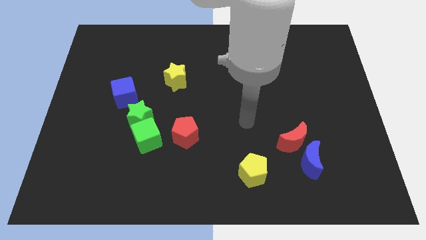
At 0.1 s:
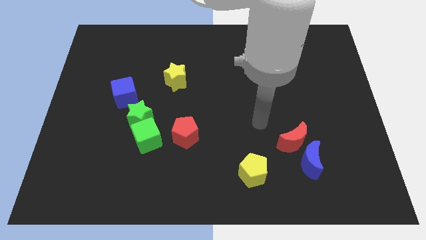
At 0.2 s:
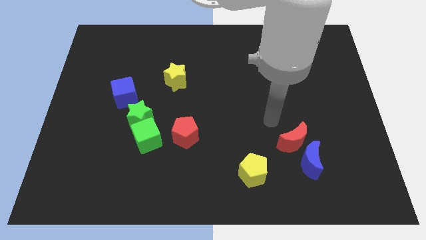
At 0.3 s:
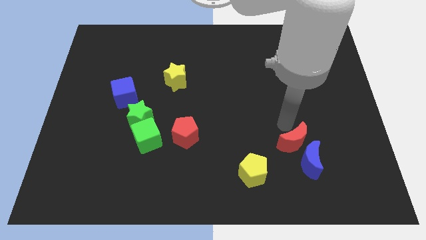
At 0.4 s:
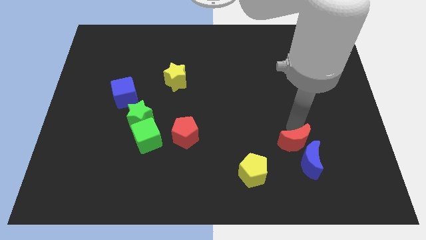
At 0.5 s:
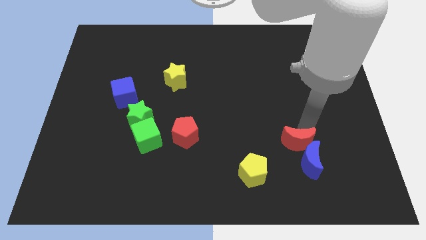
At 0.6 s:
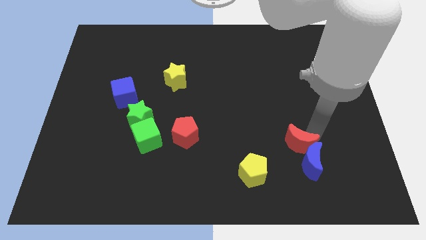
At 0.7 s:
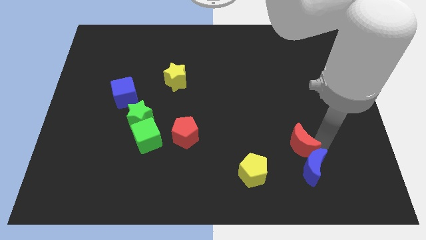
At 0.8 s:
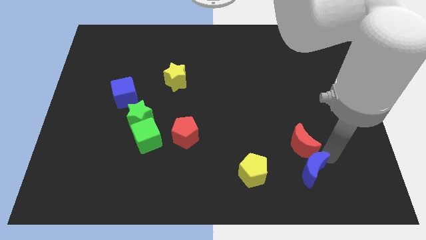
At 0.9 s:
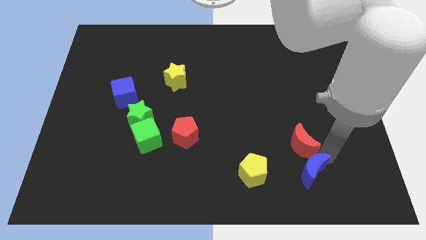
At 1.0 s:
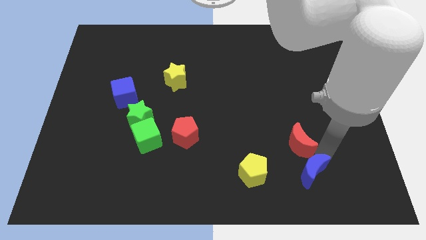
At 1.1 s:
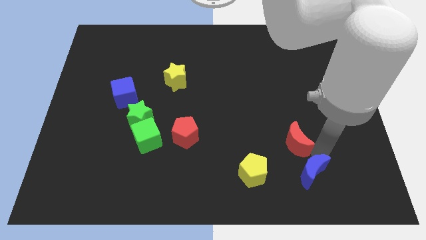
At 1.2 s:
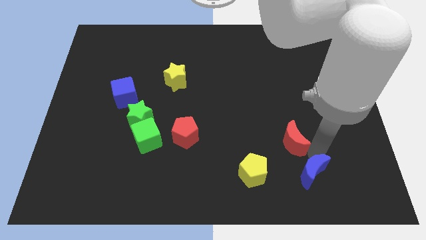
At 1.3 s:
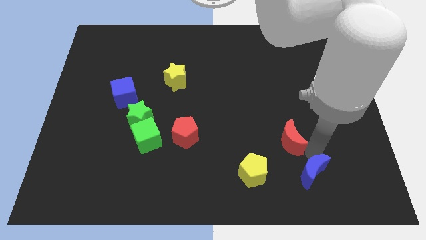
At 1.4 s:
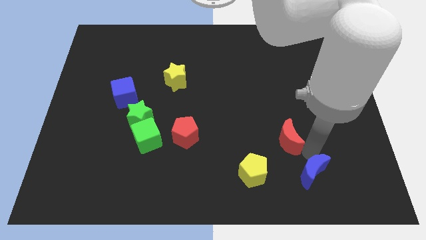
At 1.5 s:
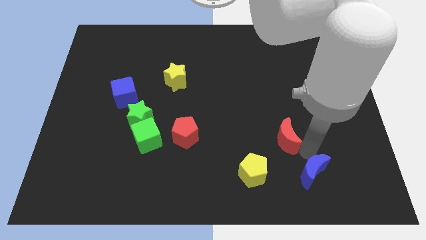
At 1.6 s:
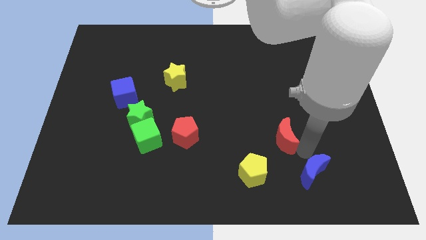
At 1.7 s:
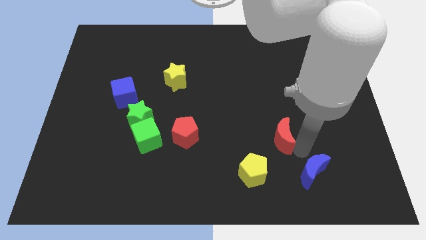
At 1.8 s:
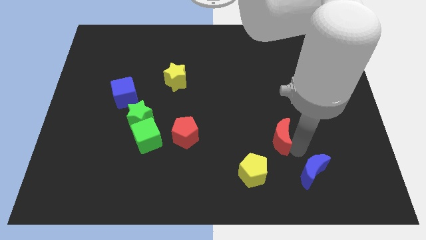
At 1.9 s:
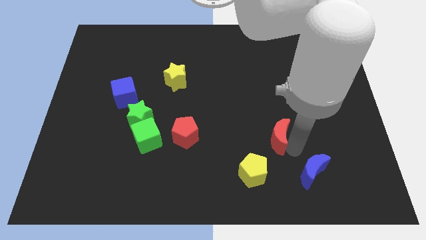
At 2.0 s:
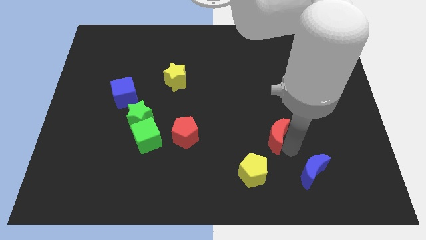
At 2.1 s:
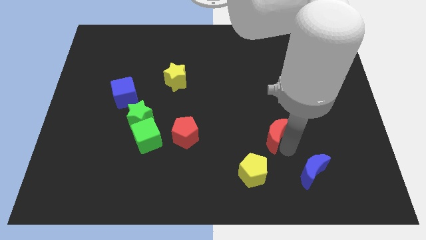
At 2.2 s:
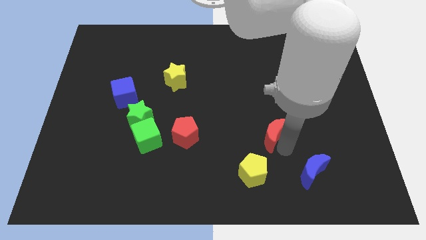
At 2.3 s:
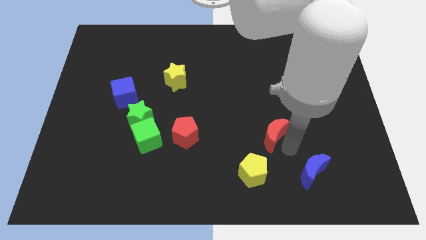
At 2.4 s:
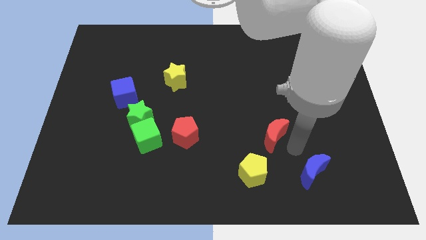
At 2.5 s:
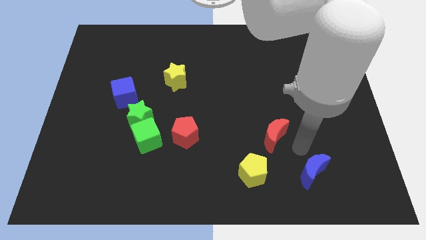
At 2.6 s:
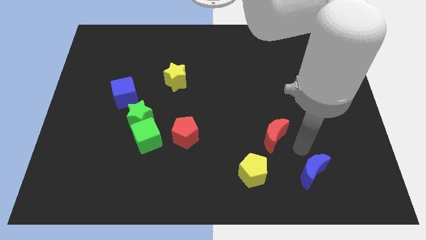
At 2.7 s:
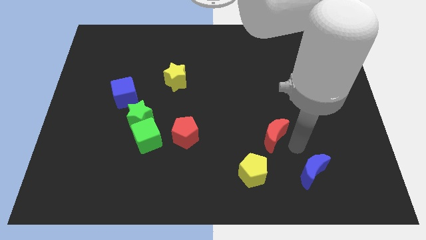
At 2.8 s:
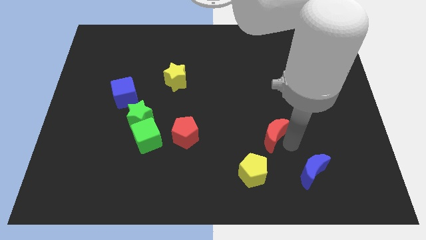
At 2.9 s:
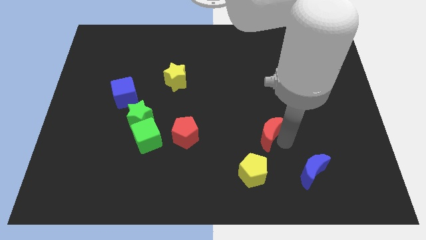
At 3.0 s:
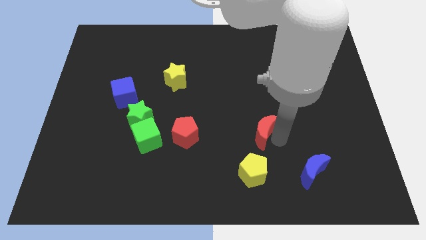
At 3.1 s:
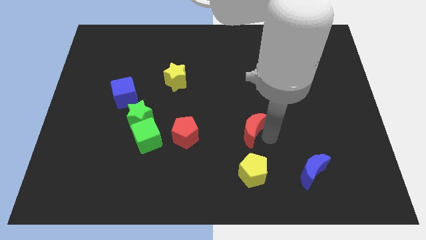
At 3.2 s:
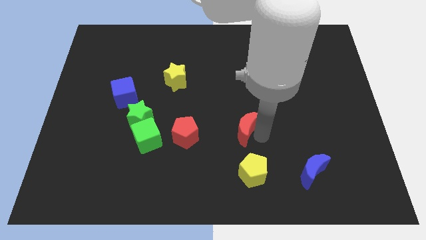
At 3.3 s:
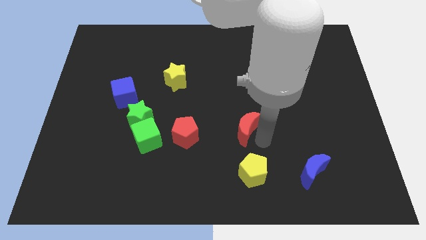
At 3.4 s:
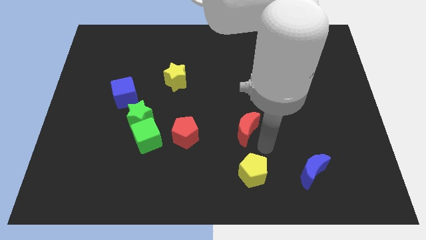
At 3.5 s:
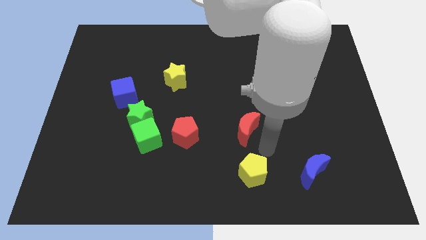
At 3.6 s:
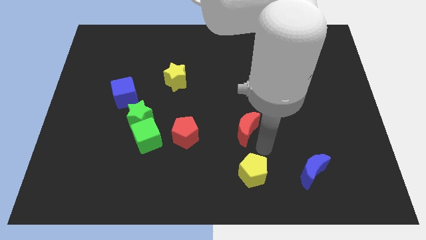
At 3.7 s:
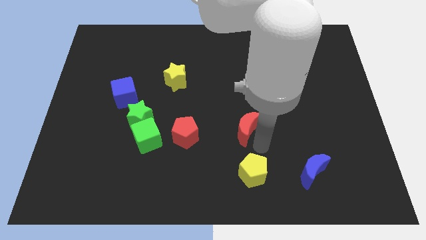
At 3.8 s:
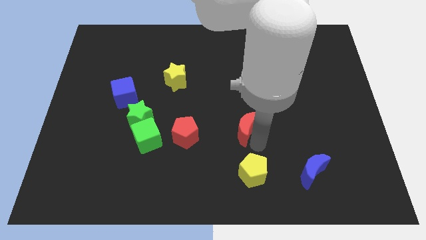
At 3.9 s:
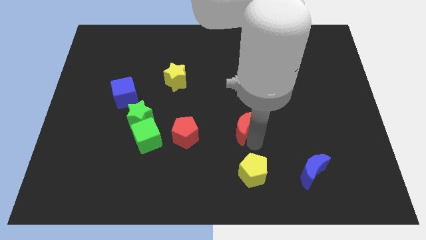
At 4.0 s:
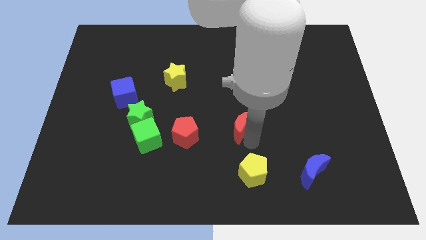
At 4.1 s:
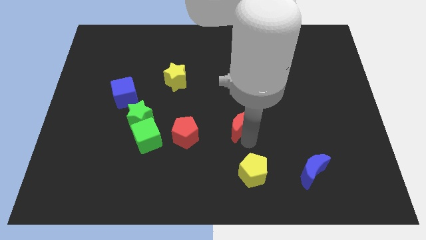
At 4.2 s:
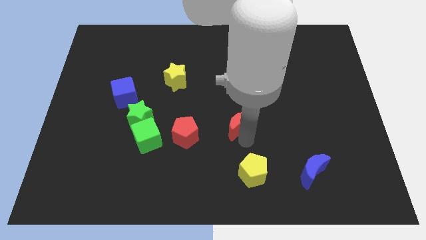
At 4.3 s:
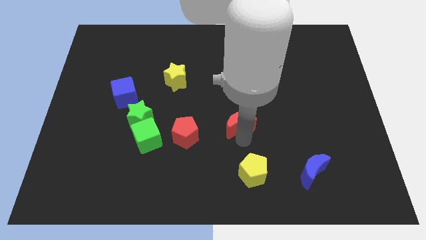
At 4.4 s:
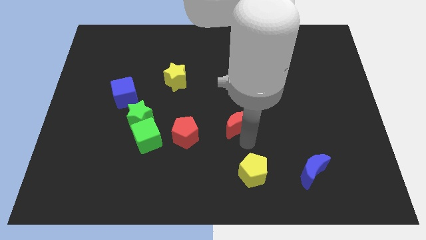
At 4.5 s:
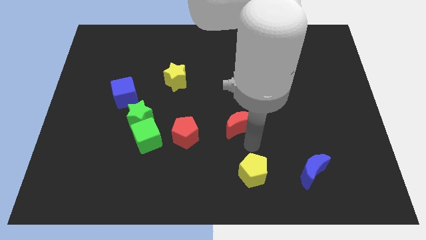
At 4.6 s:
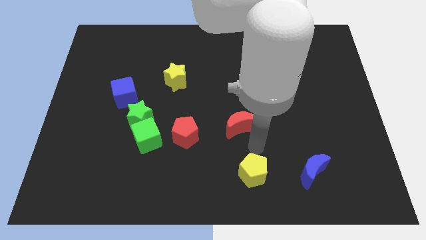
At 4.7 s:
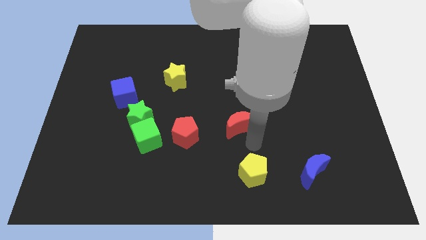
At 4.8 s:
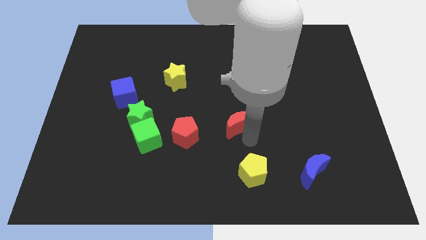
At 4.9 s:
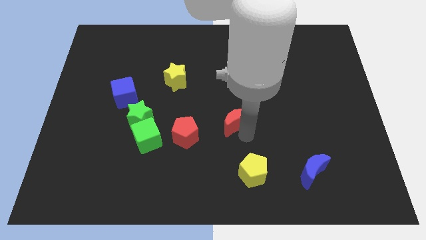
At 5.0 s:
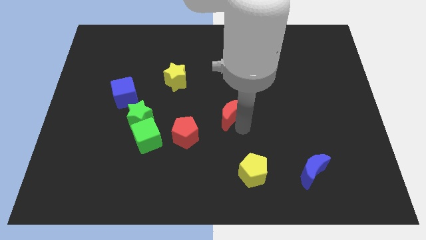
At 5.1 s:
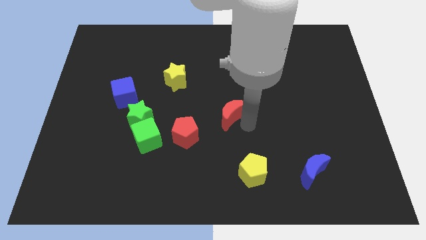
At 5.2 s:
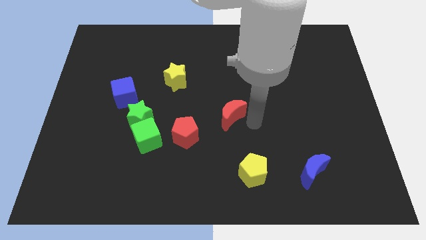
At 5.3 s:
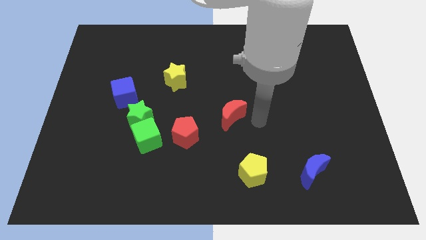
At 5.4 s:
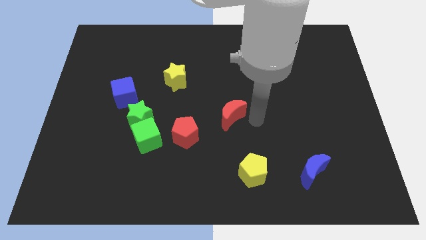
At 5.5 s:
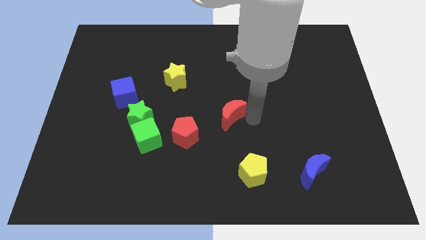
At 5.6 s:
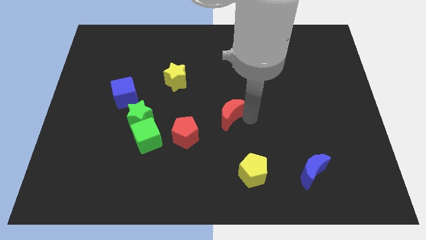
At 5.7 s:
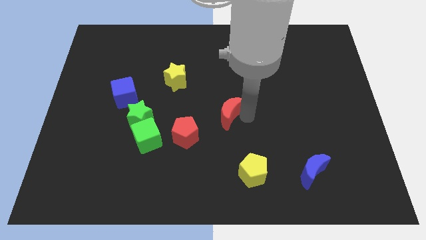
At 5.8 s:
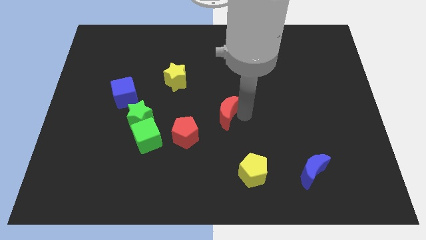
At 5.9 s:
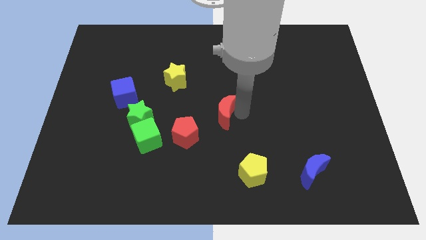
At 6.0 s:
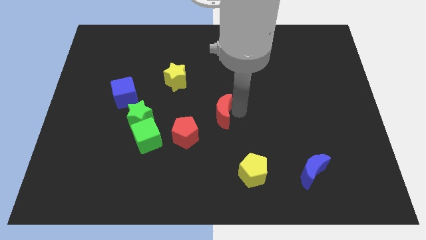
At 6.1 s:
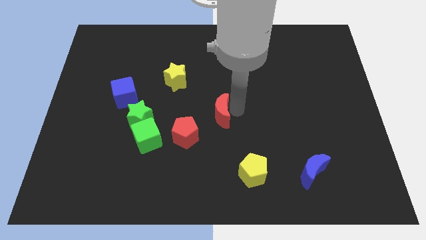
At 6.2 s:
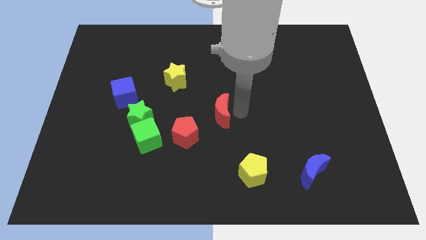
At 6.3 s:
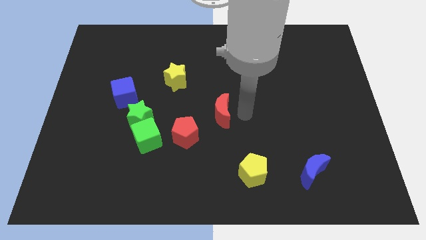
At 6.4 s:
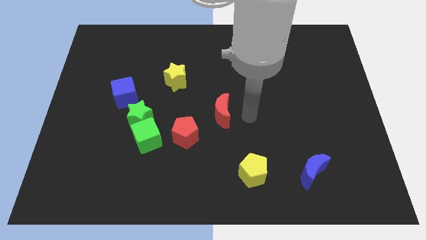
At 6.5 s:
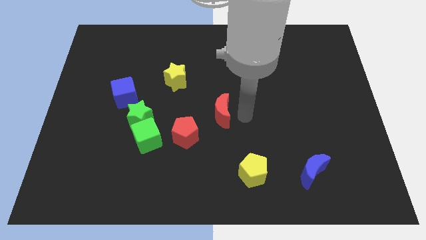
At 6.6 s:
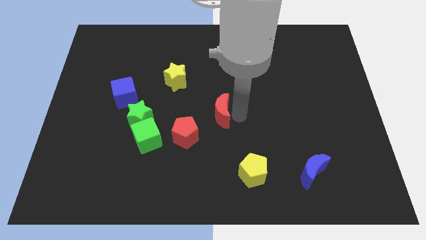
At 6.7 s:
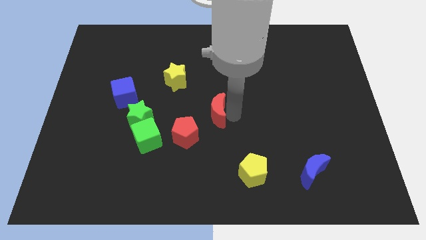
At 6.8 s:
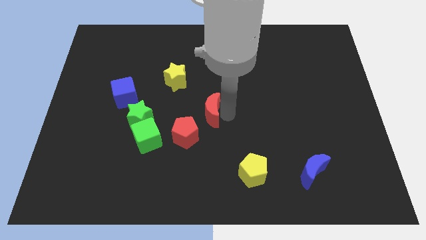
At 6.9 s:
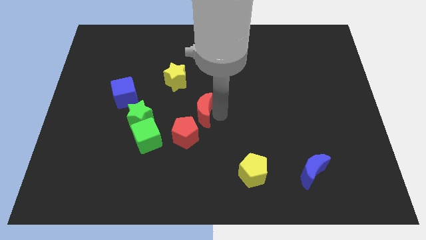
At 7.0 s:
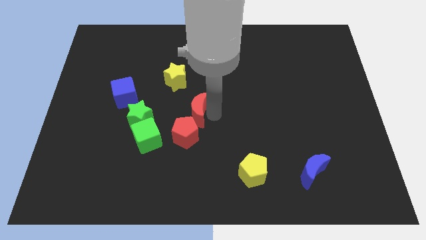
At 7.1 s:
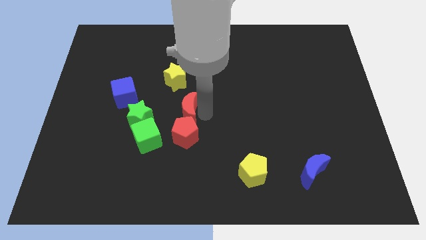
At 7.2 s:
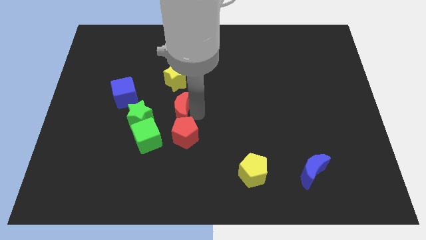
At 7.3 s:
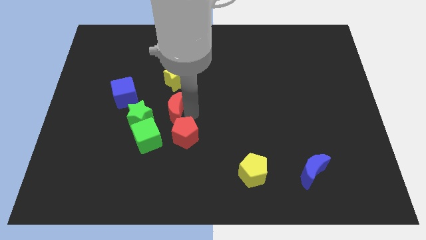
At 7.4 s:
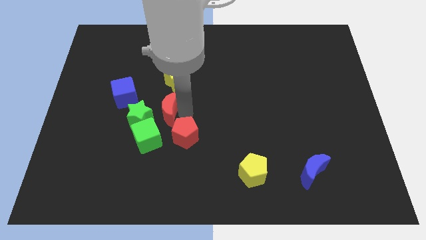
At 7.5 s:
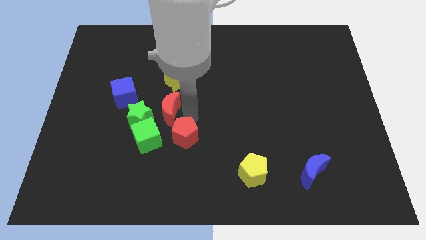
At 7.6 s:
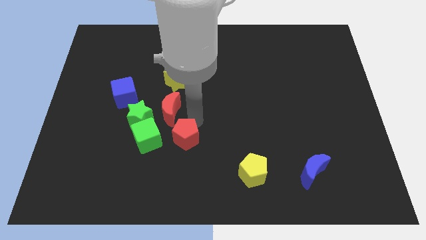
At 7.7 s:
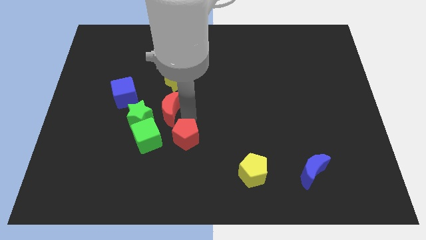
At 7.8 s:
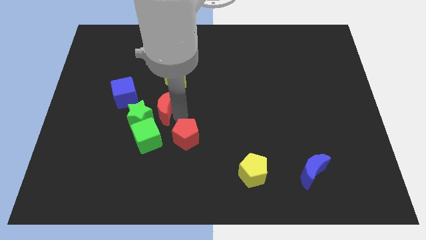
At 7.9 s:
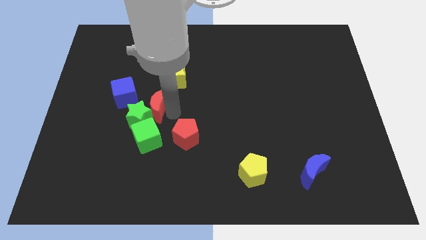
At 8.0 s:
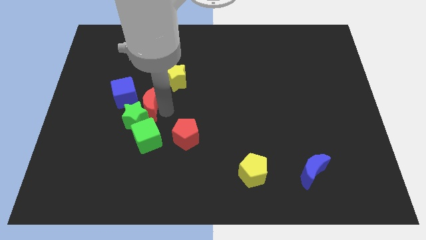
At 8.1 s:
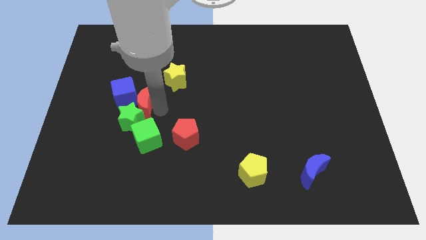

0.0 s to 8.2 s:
put the red moon towards the blue cube
